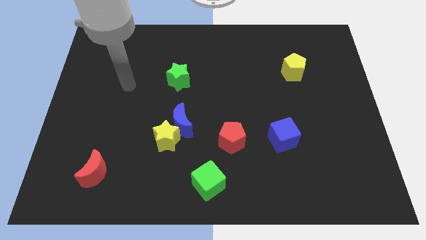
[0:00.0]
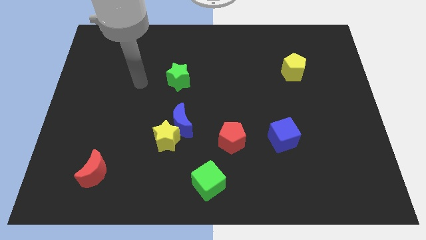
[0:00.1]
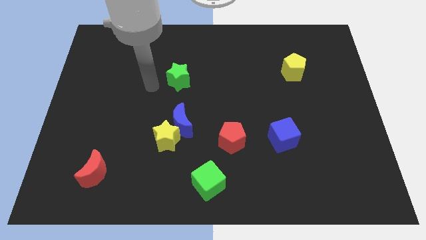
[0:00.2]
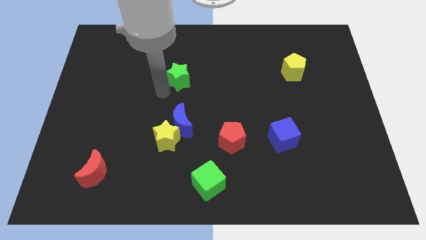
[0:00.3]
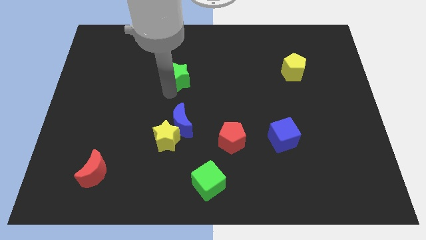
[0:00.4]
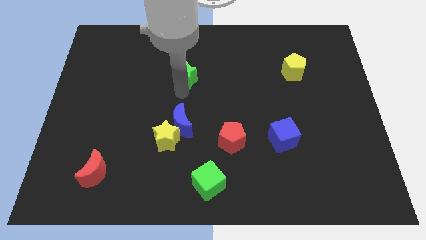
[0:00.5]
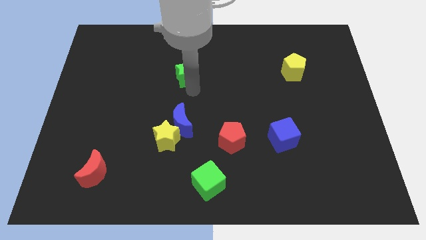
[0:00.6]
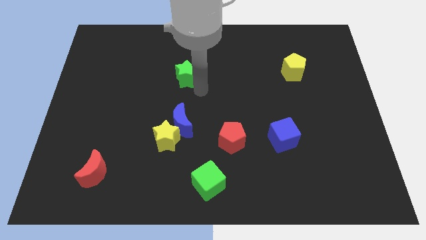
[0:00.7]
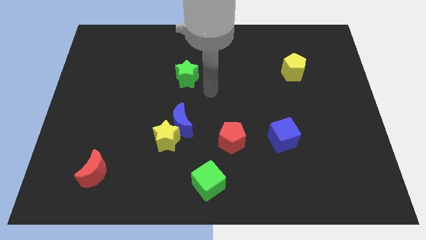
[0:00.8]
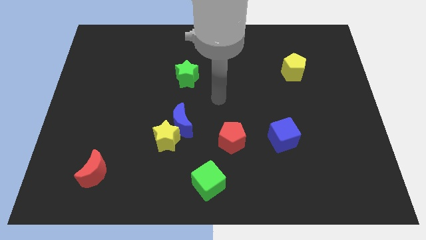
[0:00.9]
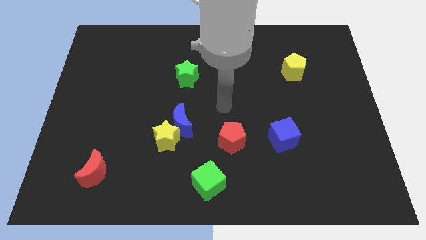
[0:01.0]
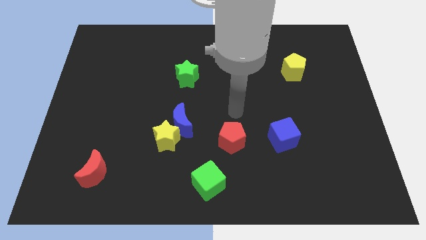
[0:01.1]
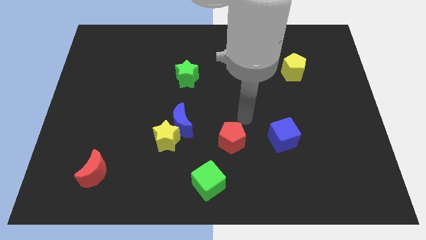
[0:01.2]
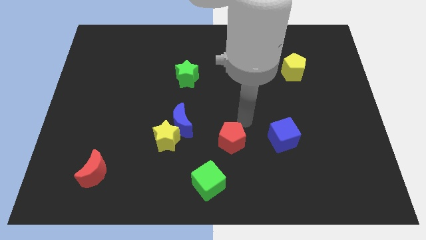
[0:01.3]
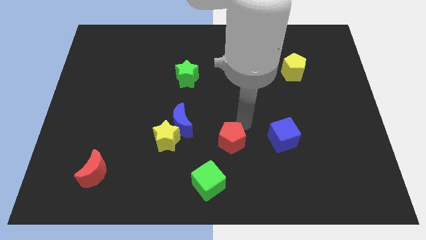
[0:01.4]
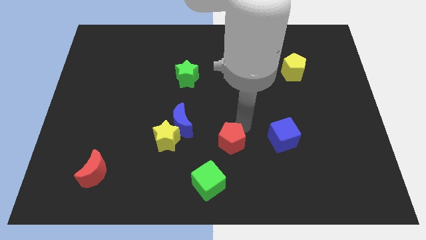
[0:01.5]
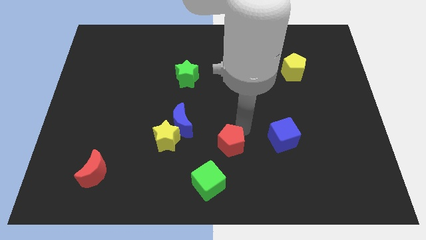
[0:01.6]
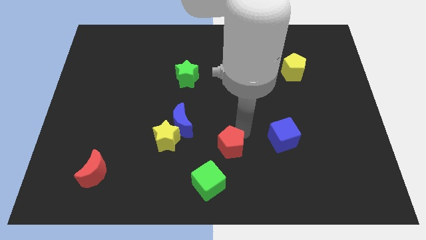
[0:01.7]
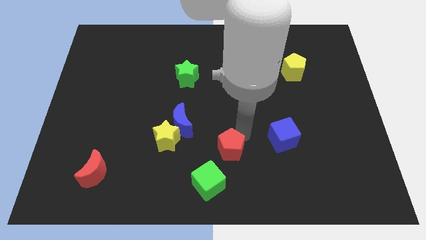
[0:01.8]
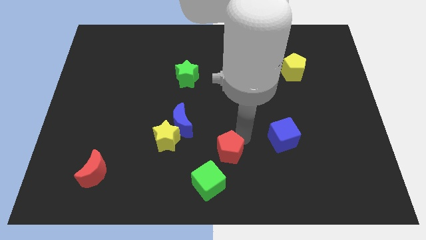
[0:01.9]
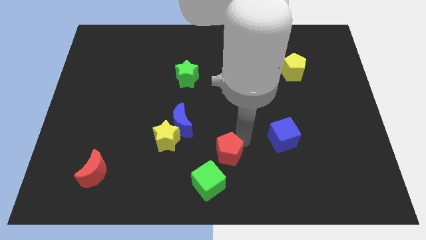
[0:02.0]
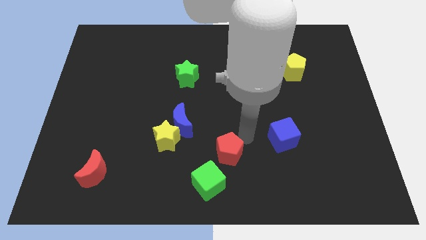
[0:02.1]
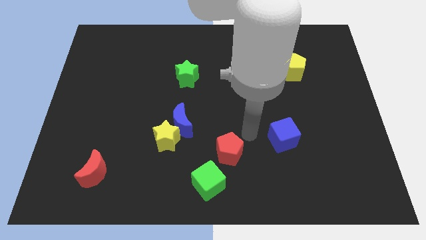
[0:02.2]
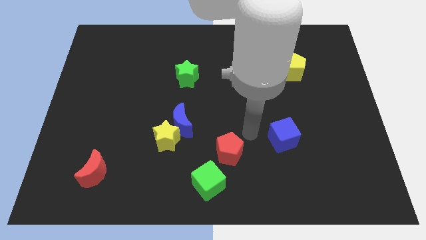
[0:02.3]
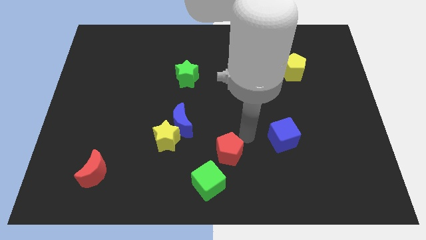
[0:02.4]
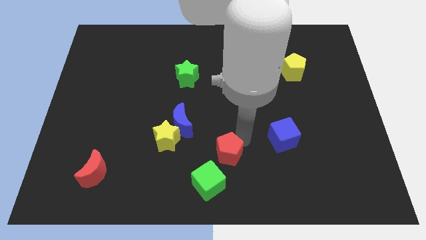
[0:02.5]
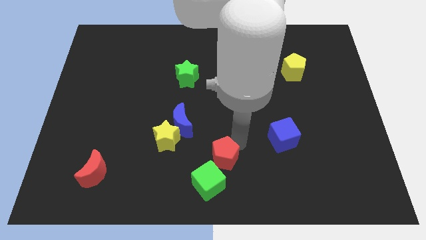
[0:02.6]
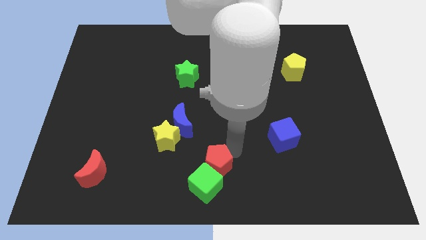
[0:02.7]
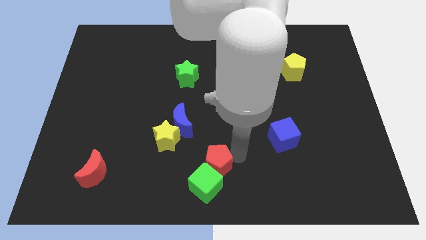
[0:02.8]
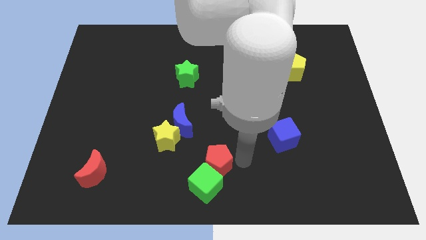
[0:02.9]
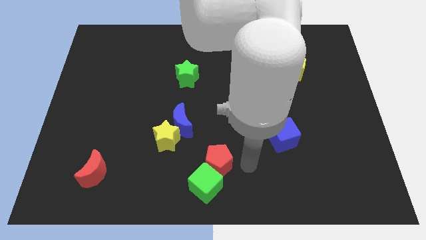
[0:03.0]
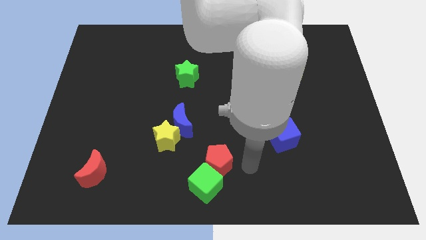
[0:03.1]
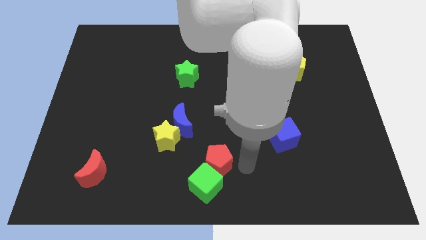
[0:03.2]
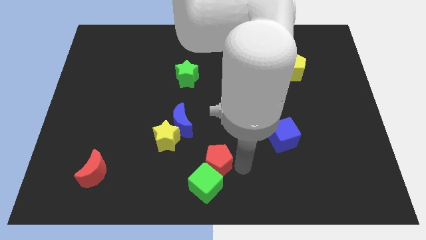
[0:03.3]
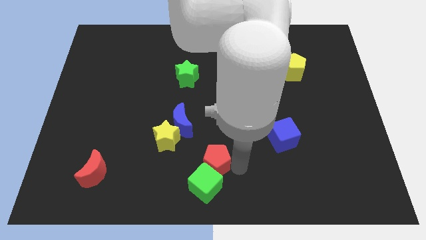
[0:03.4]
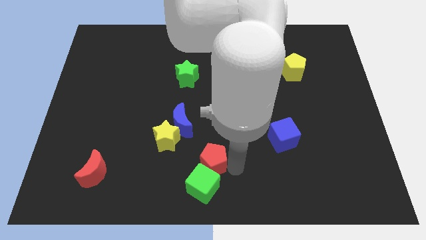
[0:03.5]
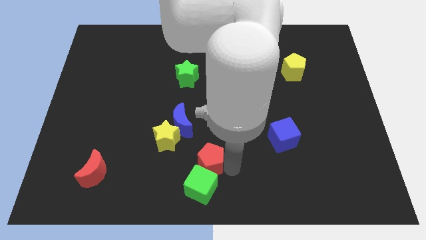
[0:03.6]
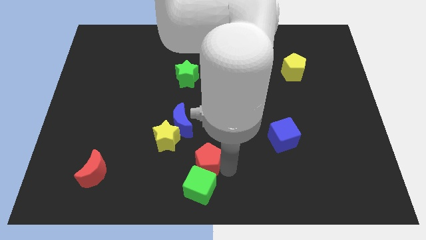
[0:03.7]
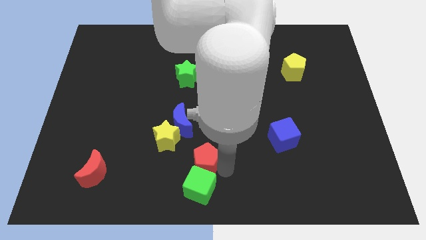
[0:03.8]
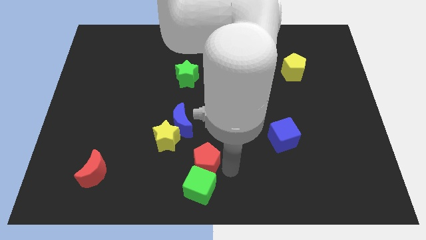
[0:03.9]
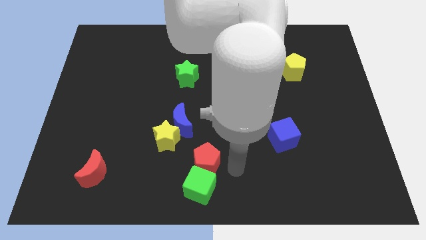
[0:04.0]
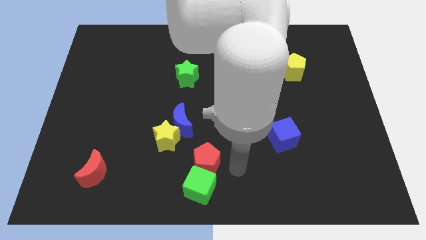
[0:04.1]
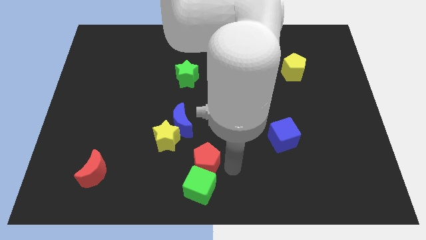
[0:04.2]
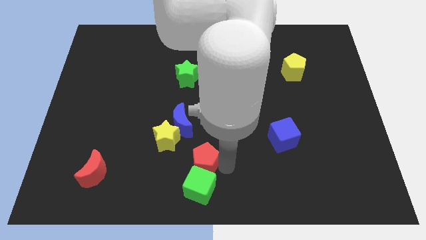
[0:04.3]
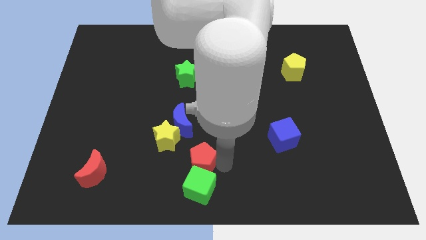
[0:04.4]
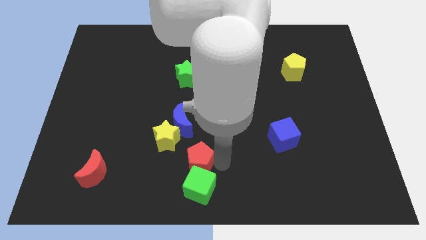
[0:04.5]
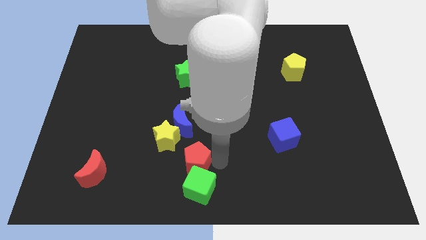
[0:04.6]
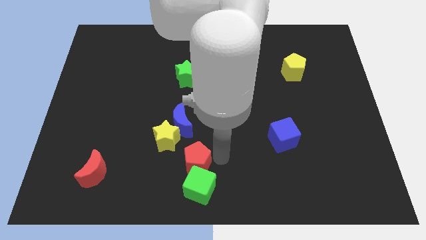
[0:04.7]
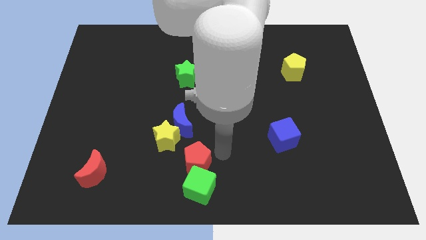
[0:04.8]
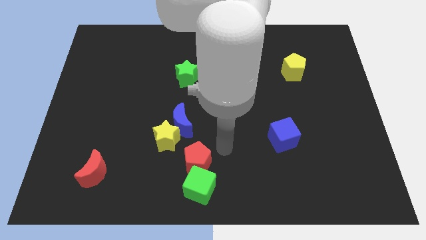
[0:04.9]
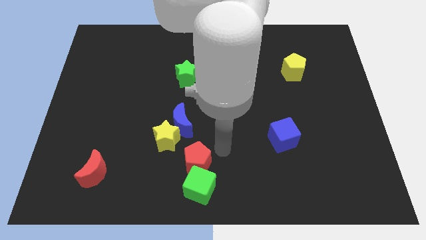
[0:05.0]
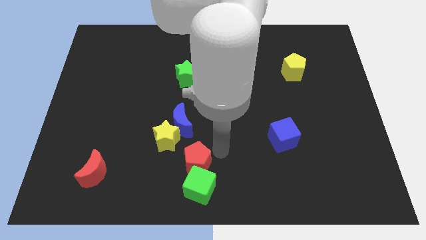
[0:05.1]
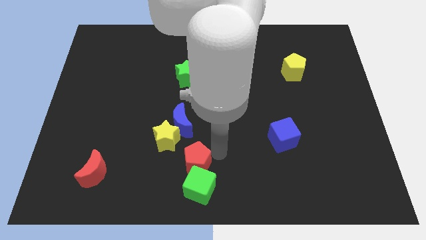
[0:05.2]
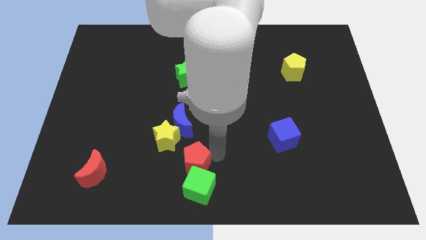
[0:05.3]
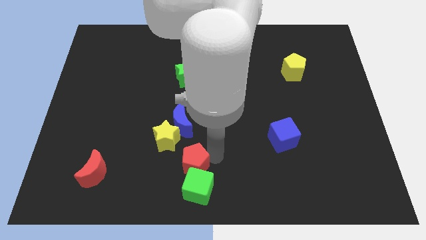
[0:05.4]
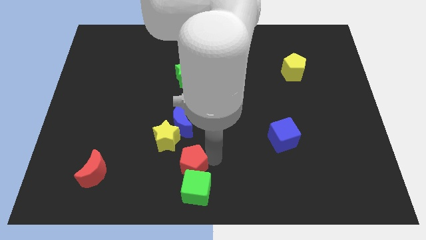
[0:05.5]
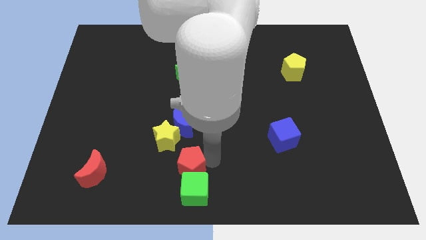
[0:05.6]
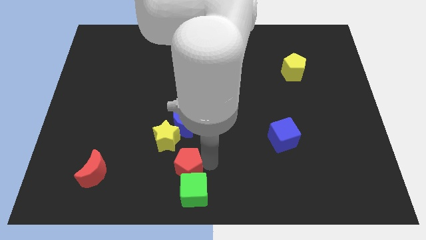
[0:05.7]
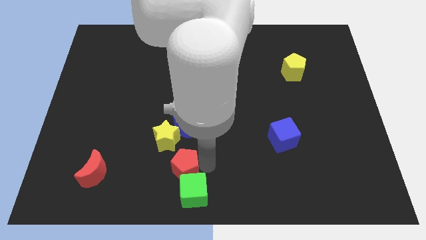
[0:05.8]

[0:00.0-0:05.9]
put the red pentagon to the bottom of the yellow star
